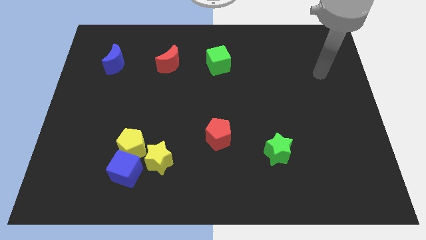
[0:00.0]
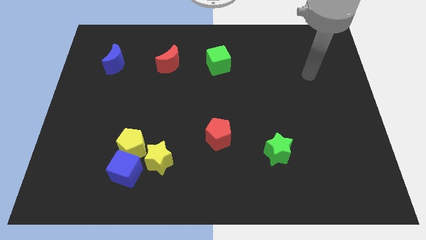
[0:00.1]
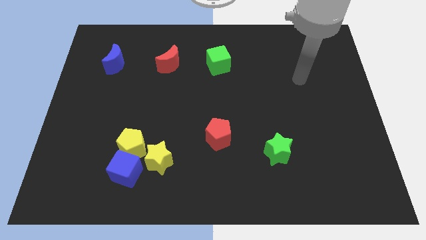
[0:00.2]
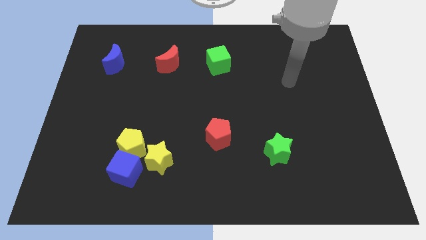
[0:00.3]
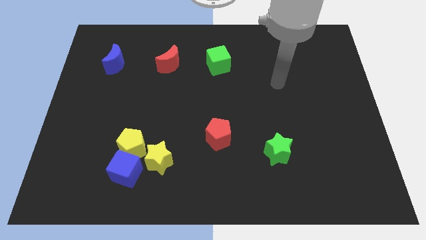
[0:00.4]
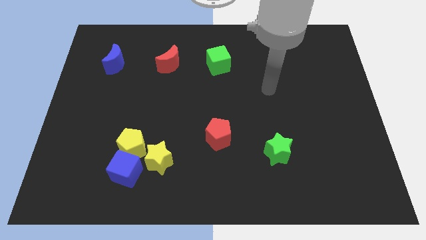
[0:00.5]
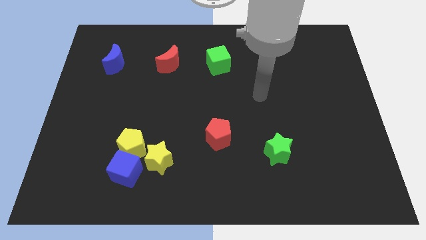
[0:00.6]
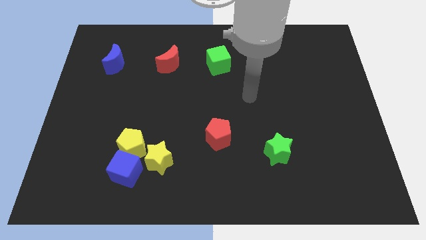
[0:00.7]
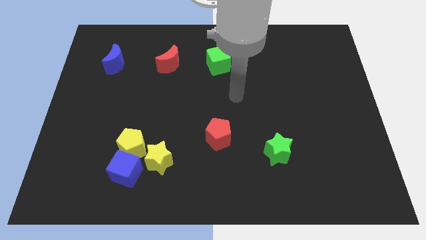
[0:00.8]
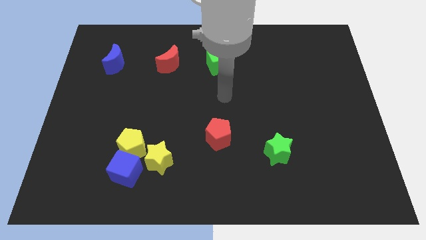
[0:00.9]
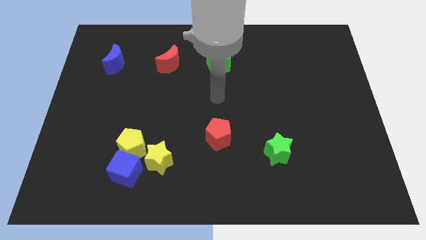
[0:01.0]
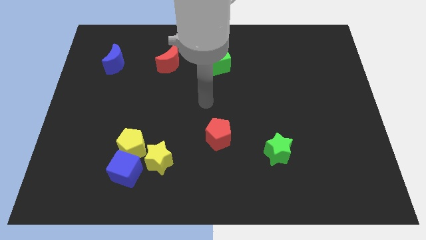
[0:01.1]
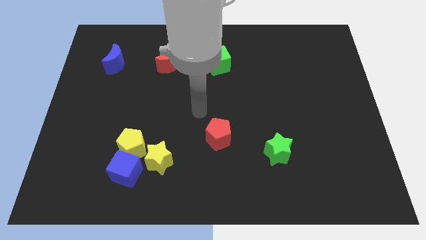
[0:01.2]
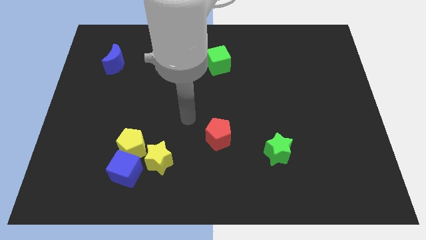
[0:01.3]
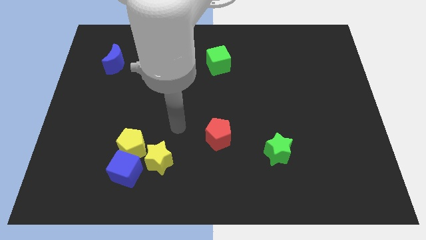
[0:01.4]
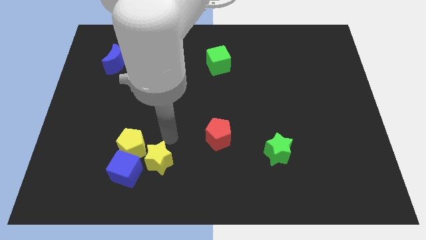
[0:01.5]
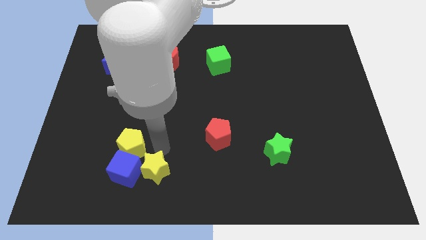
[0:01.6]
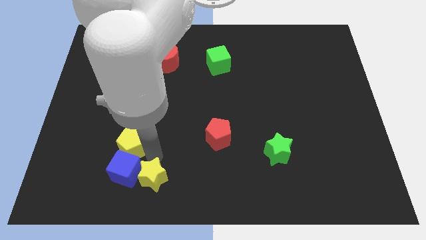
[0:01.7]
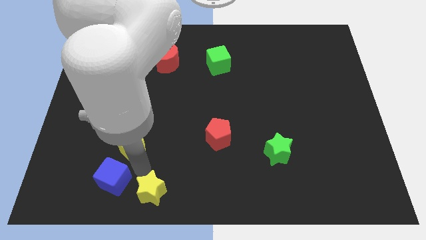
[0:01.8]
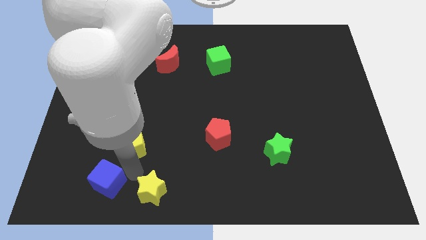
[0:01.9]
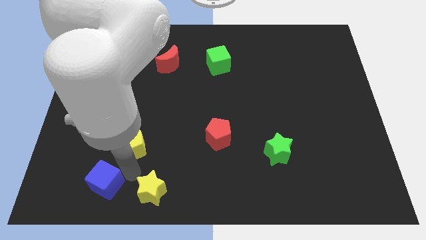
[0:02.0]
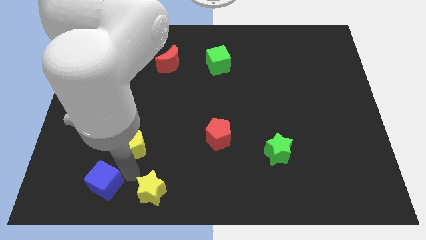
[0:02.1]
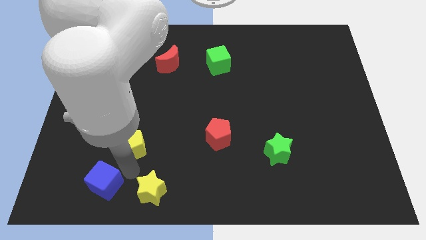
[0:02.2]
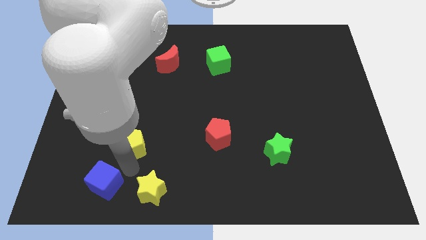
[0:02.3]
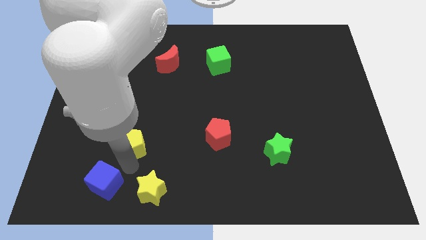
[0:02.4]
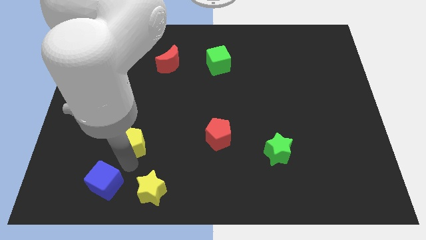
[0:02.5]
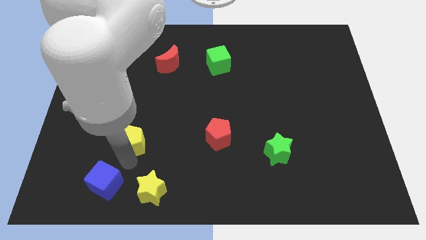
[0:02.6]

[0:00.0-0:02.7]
pull the yellow pentagon apart from the blue cube and yellow star

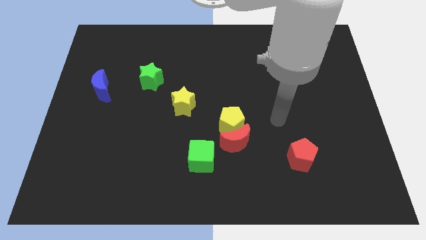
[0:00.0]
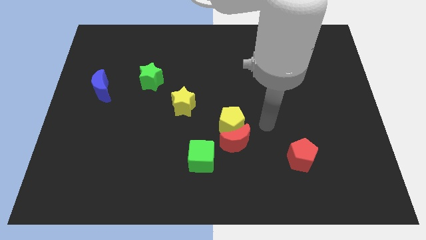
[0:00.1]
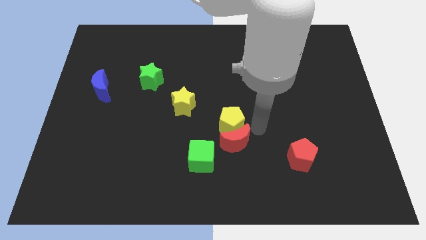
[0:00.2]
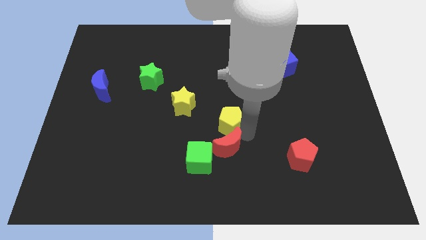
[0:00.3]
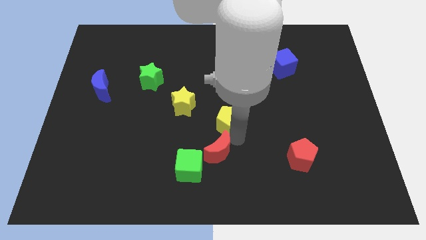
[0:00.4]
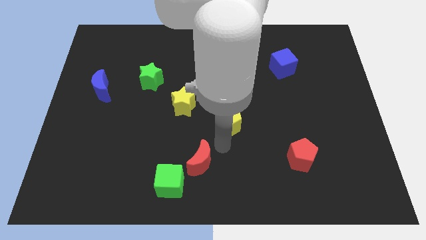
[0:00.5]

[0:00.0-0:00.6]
pull the yellow pentagon apart from the red moon

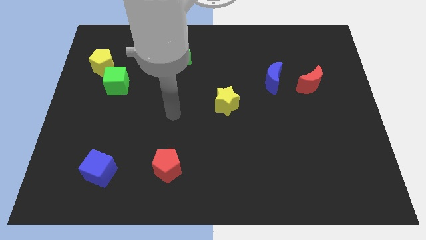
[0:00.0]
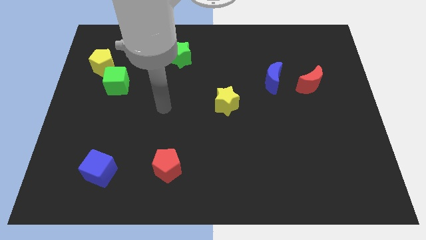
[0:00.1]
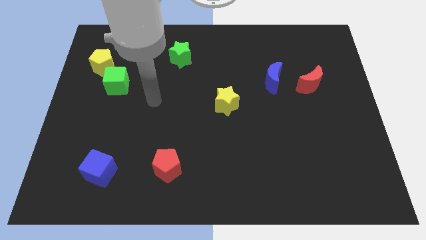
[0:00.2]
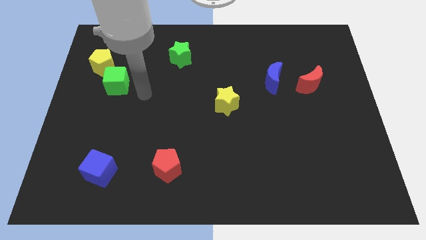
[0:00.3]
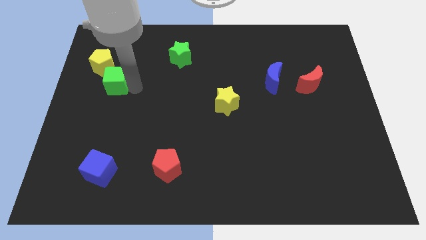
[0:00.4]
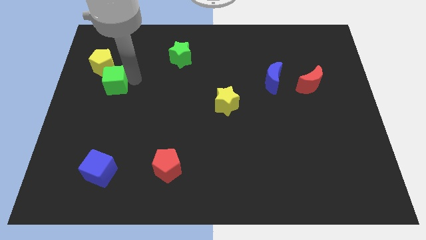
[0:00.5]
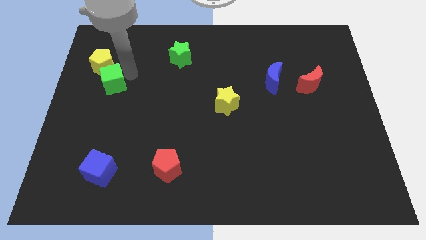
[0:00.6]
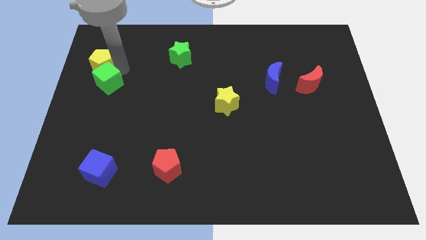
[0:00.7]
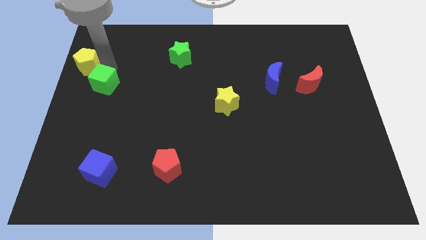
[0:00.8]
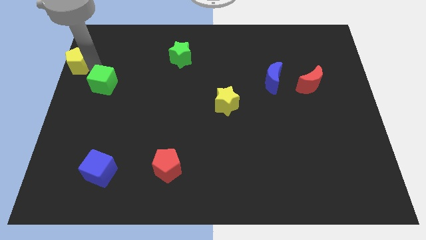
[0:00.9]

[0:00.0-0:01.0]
move the green cube away from the yellow pentagon

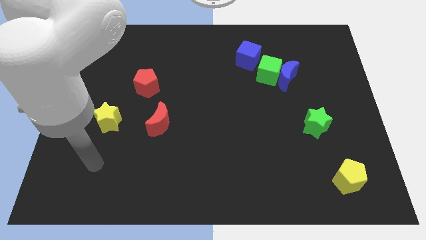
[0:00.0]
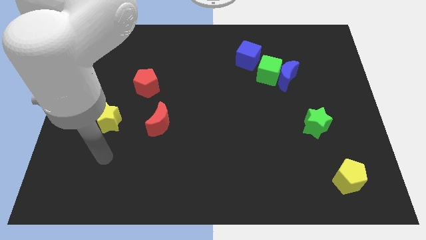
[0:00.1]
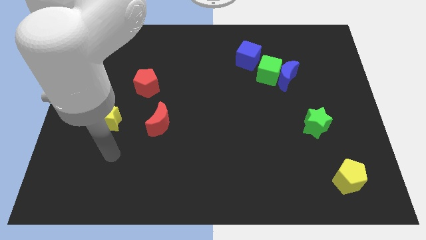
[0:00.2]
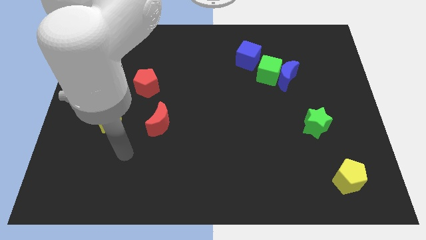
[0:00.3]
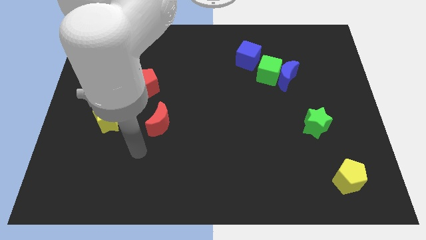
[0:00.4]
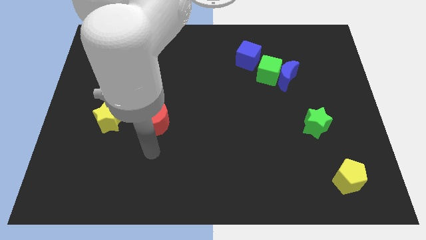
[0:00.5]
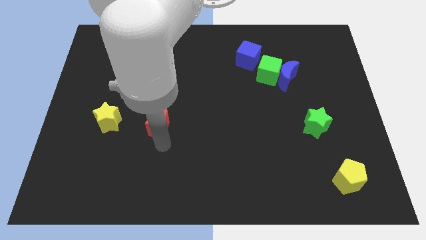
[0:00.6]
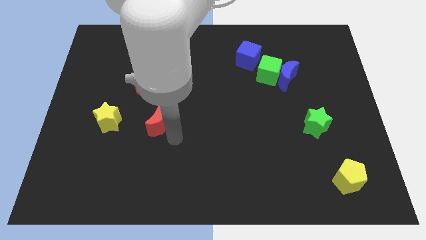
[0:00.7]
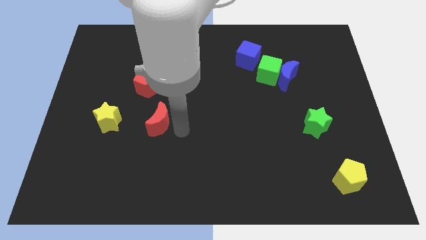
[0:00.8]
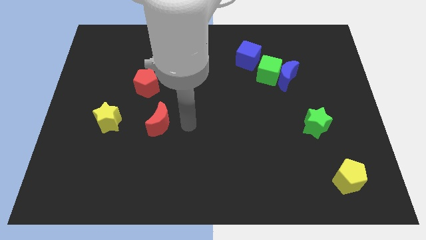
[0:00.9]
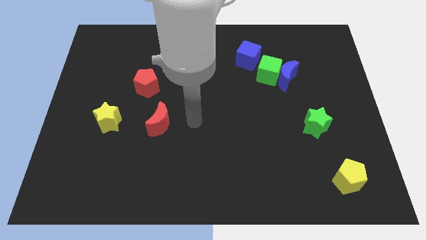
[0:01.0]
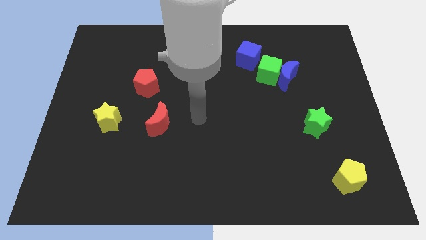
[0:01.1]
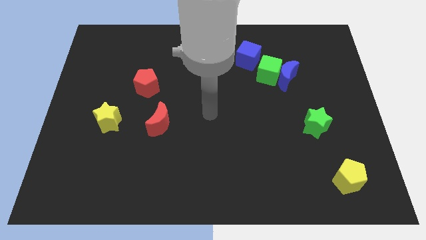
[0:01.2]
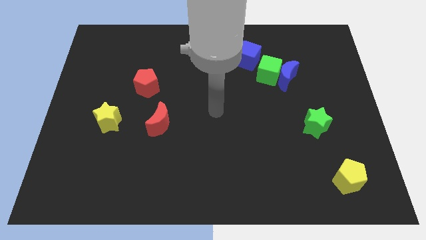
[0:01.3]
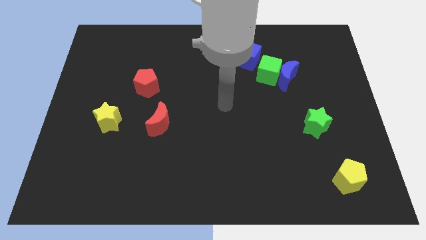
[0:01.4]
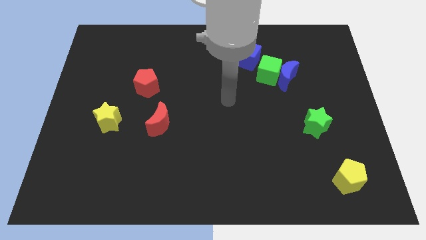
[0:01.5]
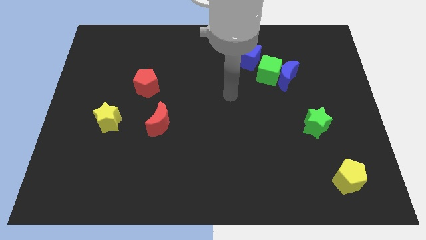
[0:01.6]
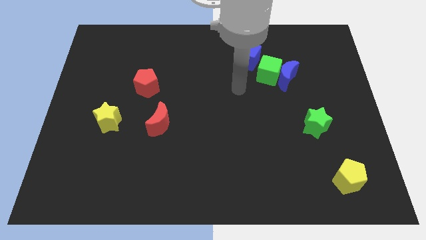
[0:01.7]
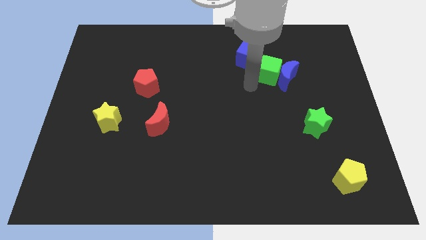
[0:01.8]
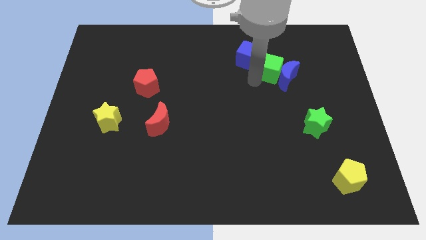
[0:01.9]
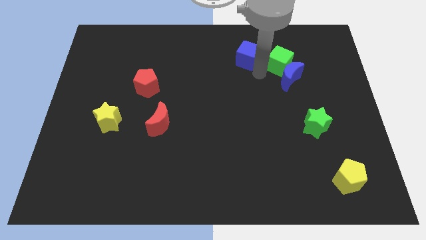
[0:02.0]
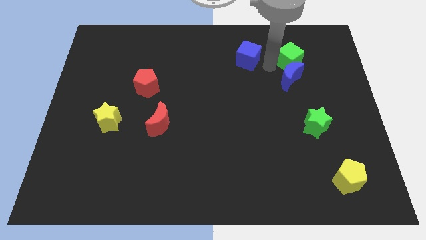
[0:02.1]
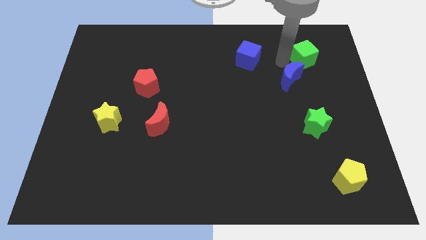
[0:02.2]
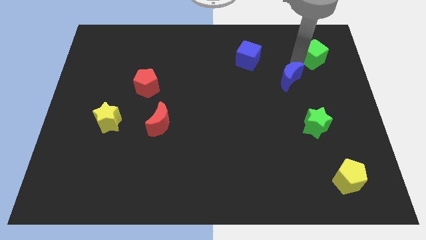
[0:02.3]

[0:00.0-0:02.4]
pull the blue moon apart from the green cube

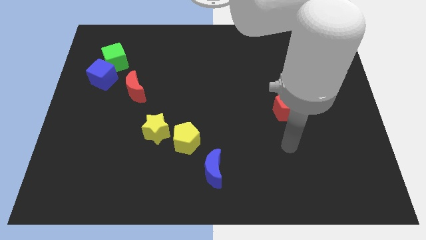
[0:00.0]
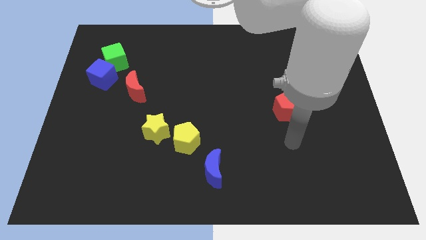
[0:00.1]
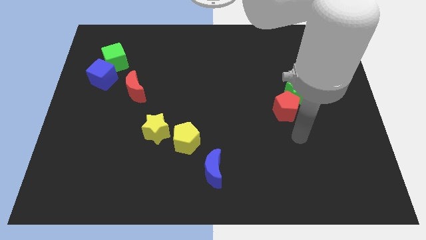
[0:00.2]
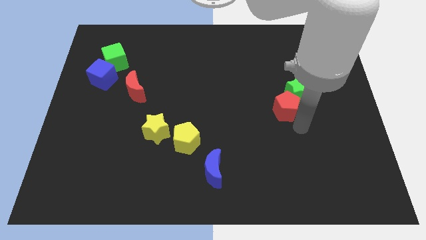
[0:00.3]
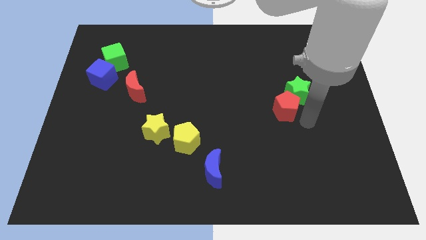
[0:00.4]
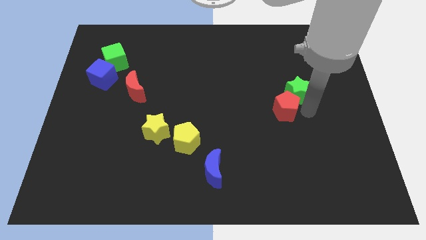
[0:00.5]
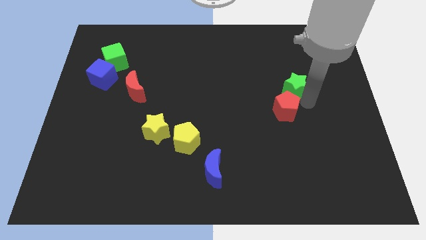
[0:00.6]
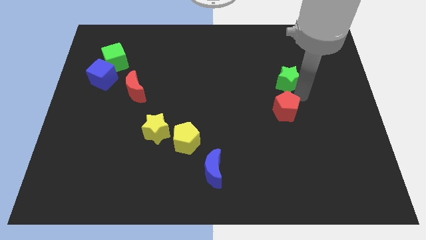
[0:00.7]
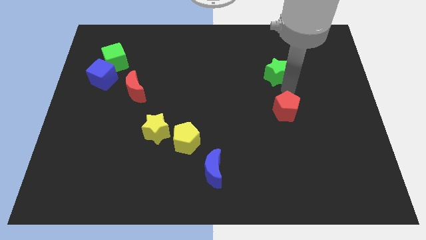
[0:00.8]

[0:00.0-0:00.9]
separate the red pentagon from the green star

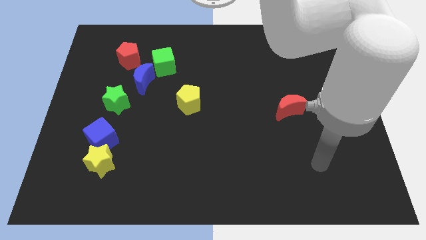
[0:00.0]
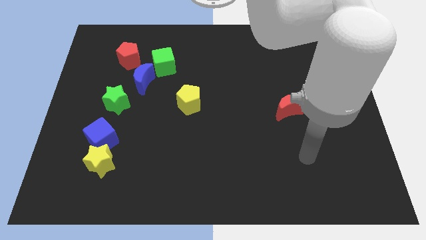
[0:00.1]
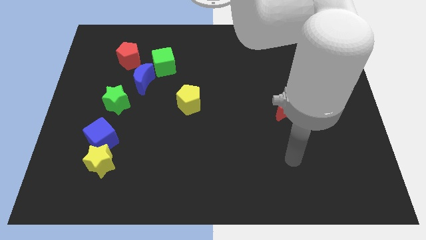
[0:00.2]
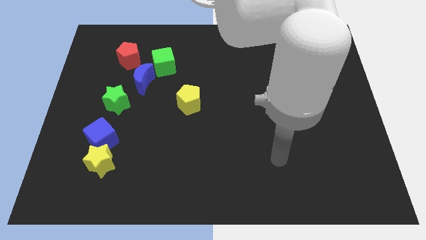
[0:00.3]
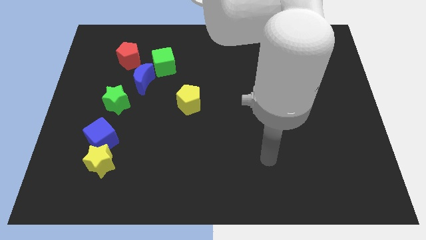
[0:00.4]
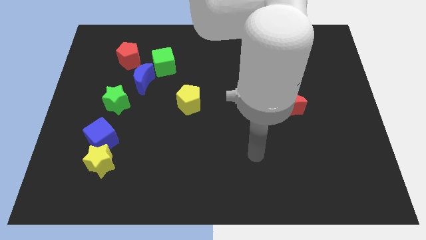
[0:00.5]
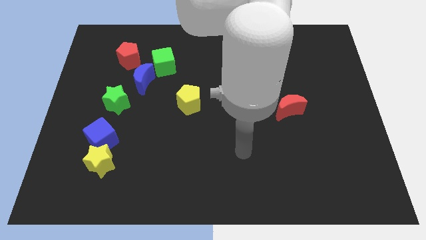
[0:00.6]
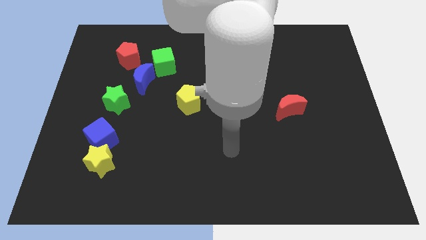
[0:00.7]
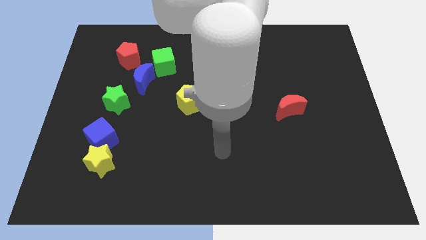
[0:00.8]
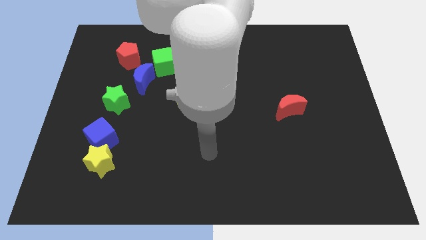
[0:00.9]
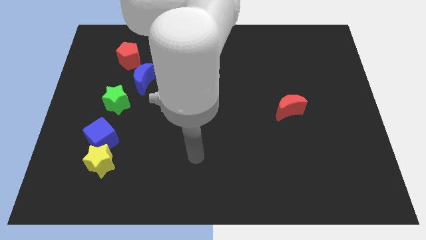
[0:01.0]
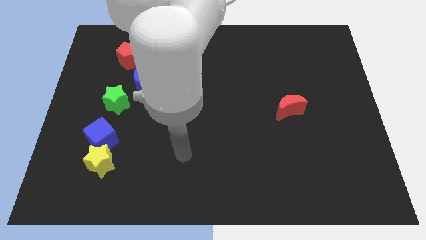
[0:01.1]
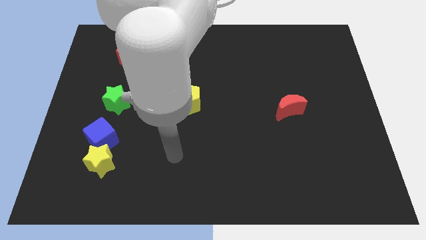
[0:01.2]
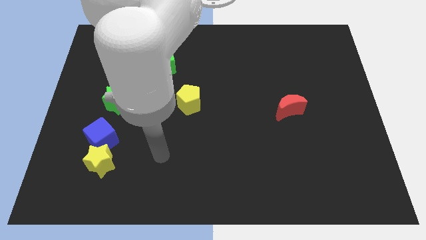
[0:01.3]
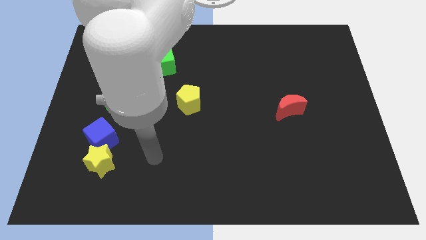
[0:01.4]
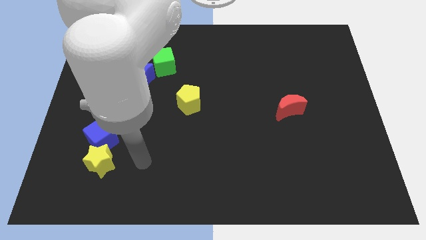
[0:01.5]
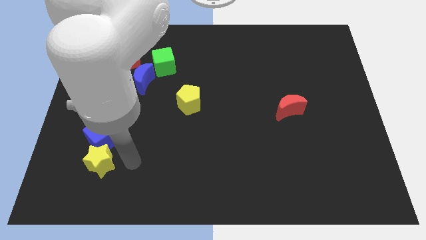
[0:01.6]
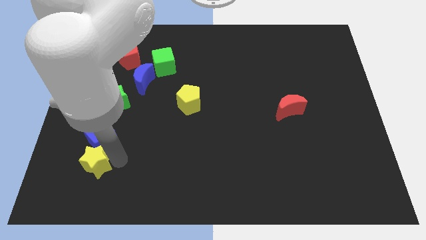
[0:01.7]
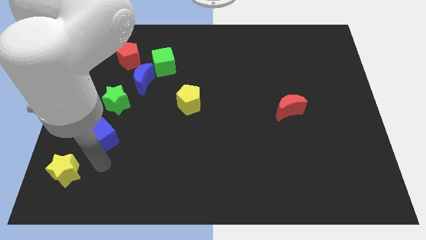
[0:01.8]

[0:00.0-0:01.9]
separate the blue cube from the yellow star
